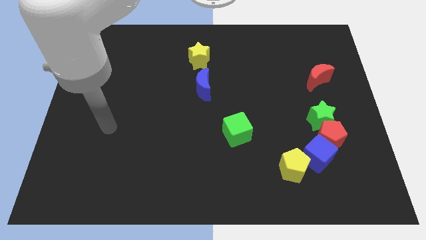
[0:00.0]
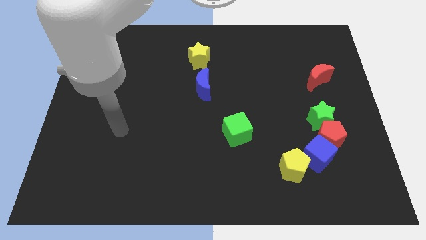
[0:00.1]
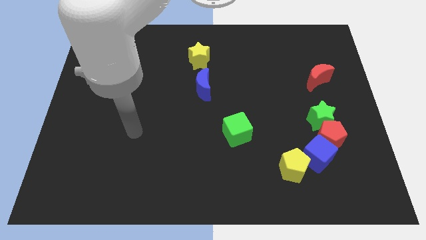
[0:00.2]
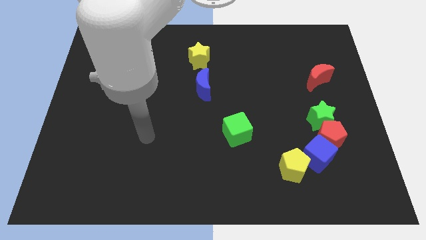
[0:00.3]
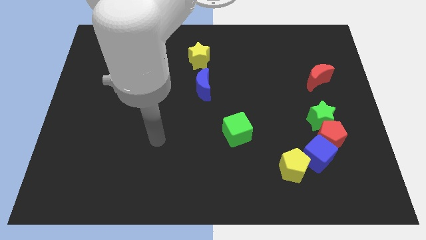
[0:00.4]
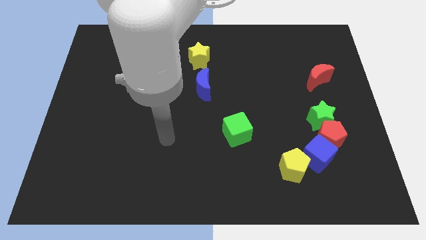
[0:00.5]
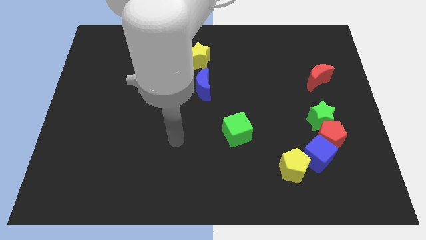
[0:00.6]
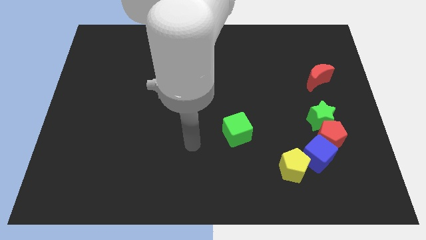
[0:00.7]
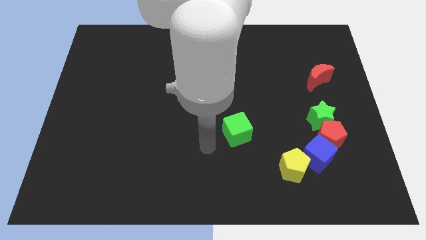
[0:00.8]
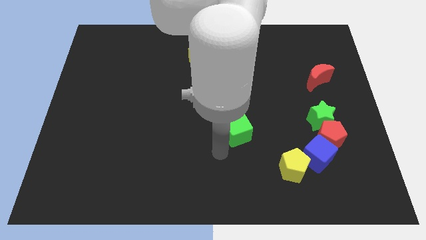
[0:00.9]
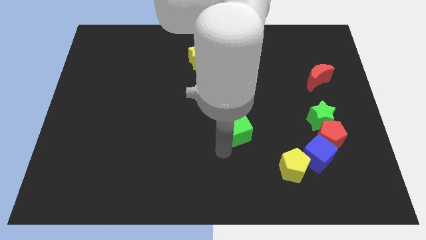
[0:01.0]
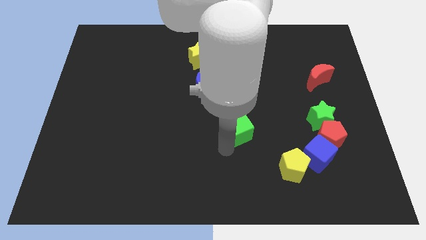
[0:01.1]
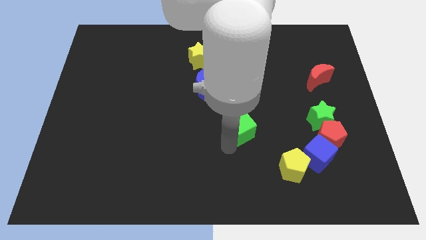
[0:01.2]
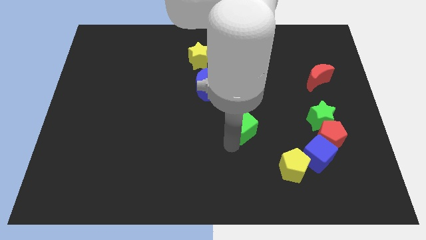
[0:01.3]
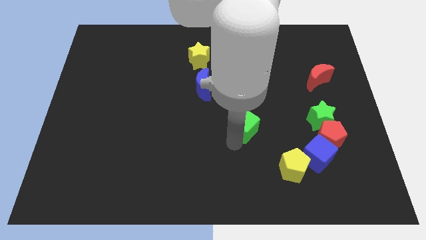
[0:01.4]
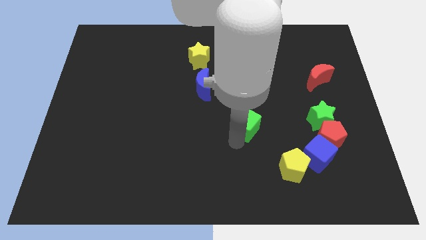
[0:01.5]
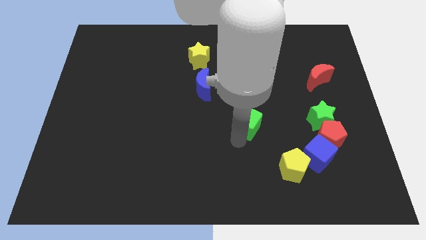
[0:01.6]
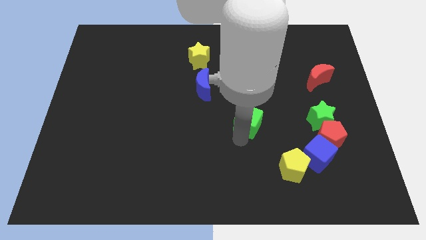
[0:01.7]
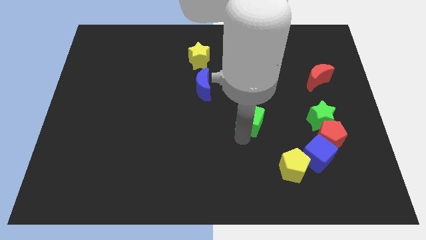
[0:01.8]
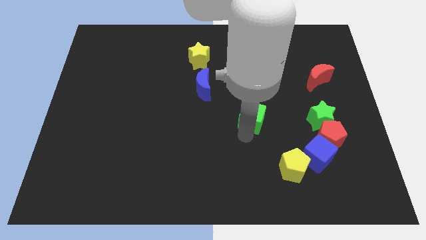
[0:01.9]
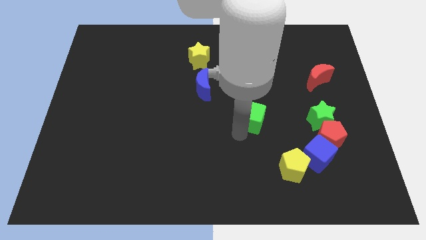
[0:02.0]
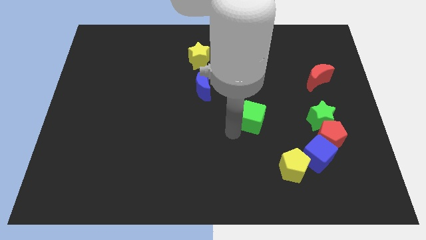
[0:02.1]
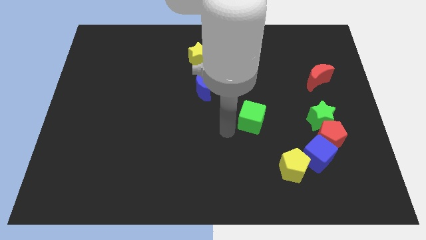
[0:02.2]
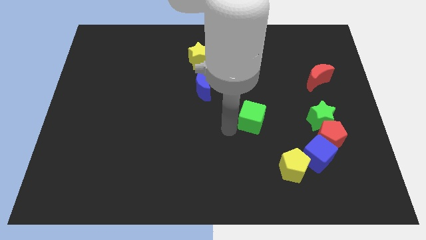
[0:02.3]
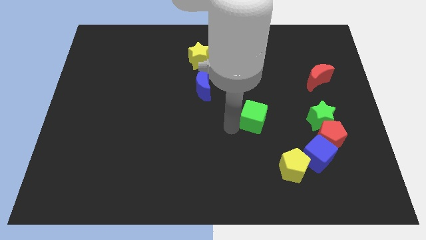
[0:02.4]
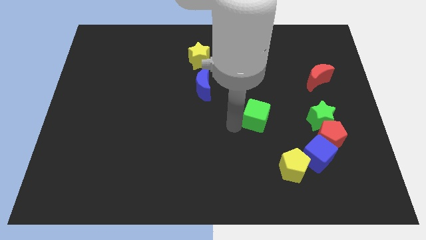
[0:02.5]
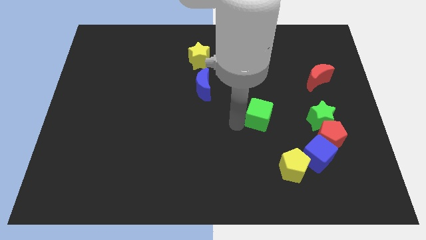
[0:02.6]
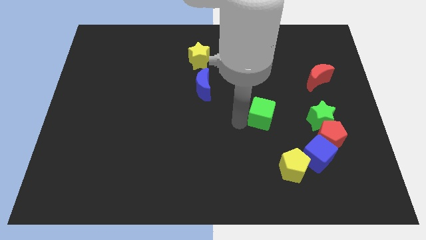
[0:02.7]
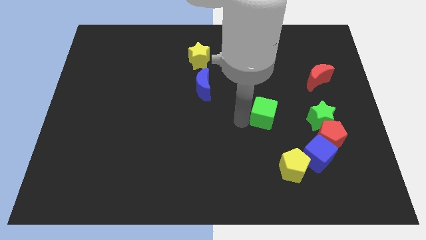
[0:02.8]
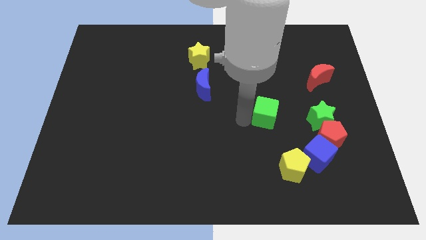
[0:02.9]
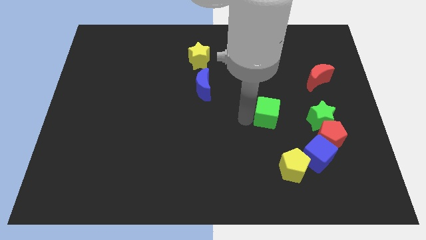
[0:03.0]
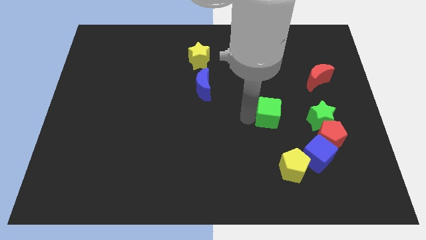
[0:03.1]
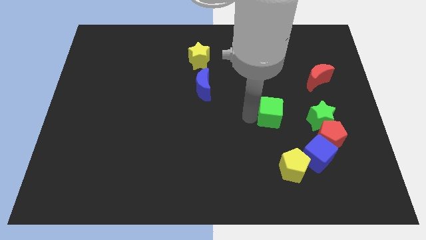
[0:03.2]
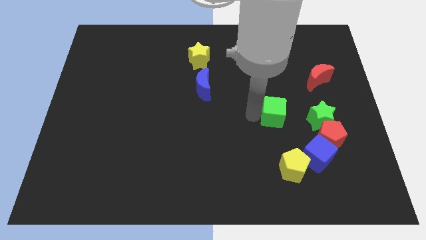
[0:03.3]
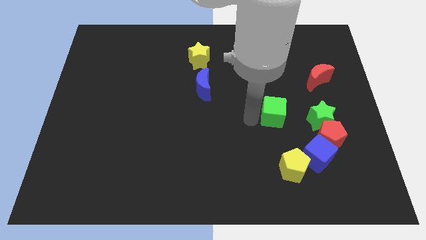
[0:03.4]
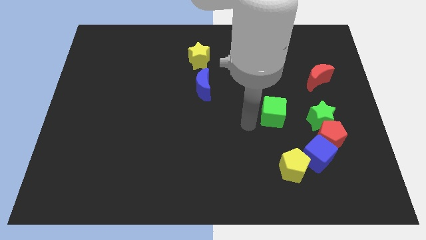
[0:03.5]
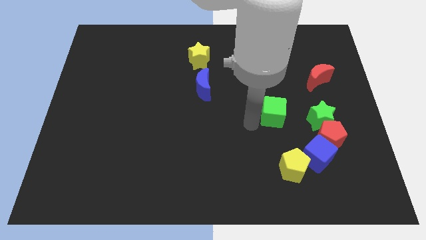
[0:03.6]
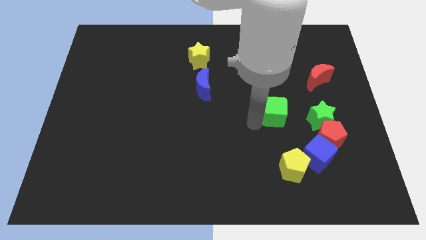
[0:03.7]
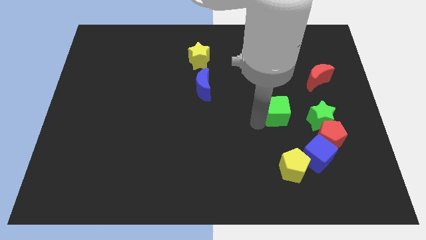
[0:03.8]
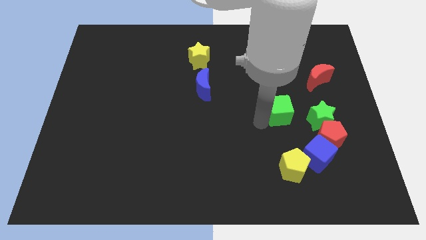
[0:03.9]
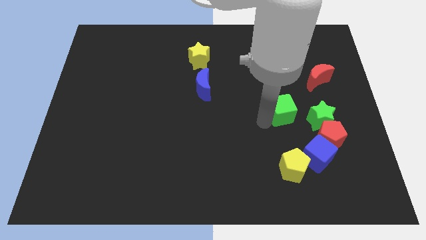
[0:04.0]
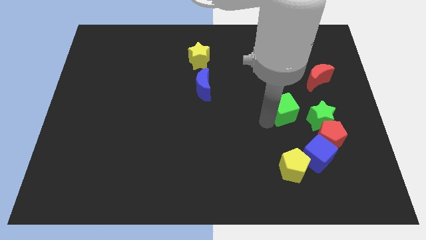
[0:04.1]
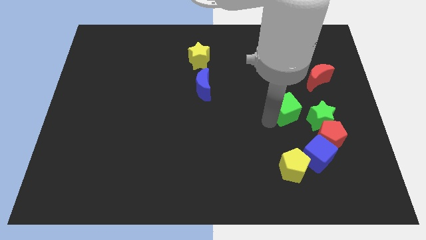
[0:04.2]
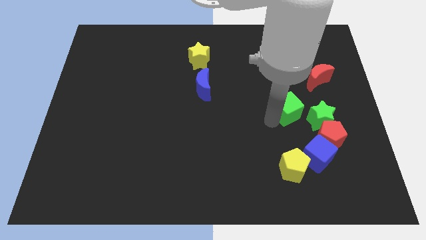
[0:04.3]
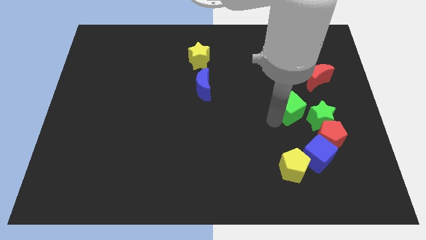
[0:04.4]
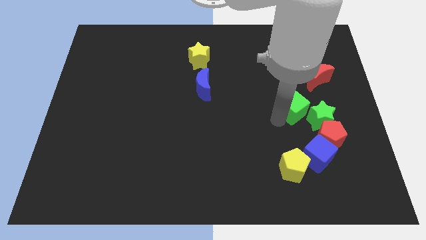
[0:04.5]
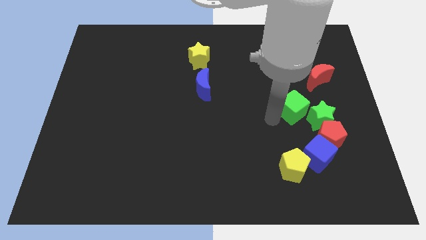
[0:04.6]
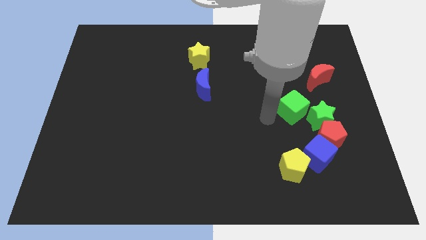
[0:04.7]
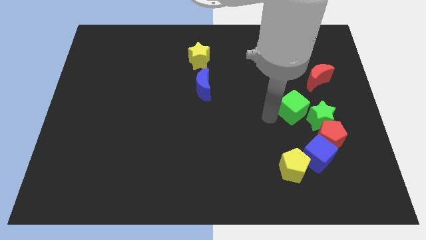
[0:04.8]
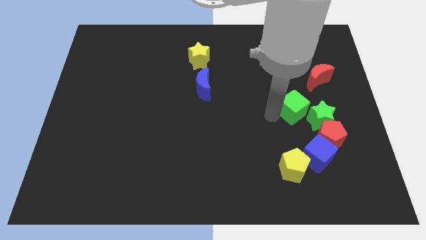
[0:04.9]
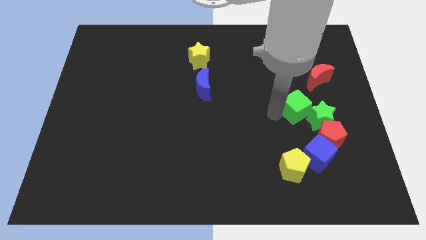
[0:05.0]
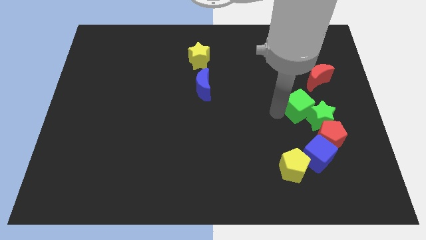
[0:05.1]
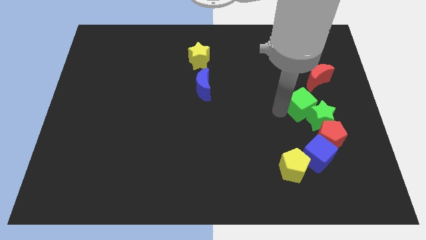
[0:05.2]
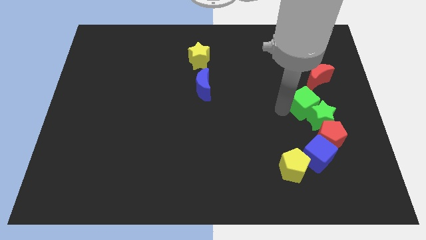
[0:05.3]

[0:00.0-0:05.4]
move the green cube to the top of the red pentagon

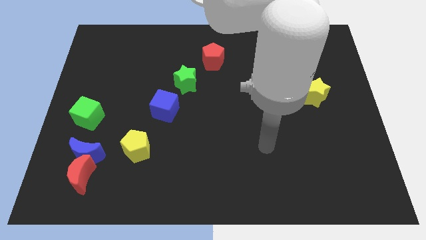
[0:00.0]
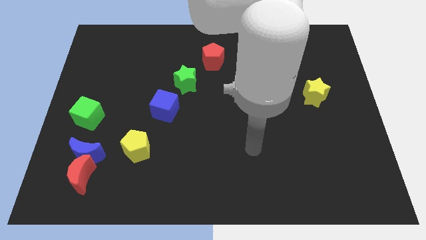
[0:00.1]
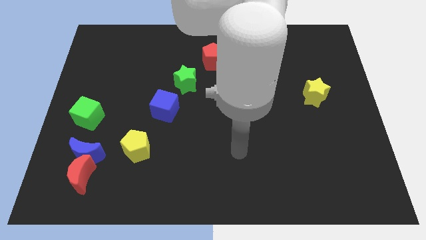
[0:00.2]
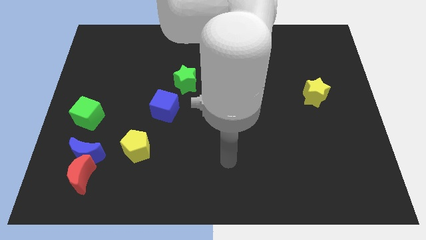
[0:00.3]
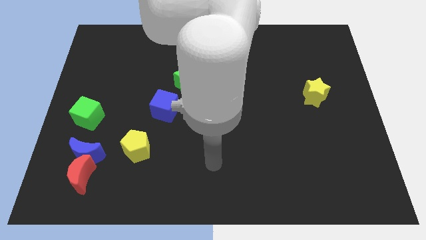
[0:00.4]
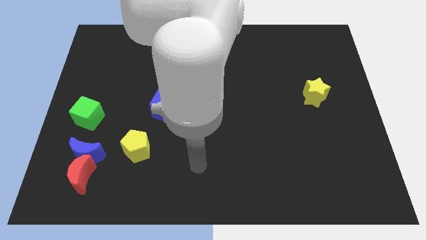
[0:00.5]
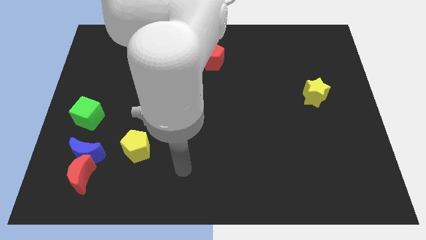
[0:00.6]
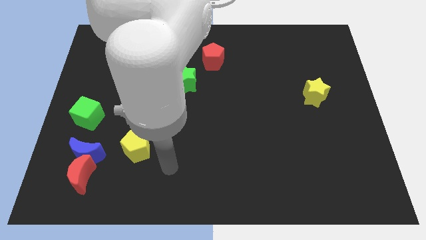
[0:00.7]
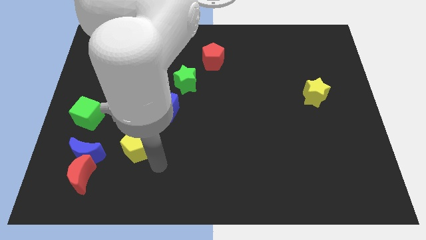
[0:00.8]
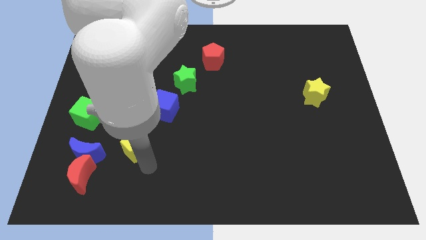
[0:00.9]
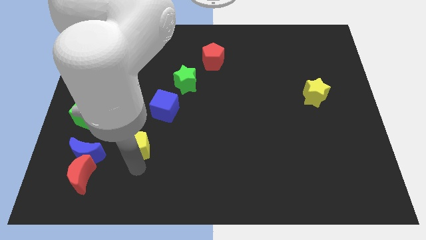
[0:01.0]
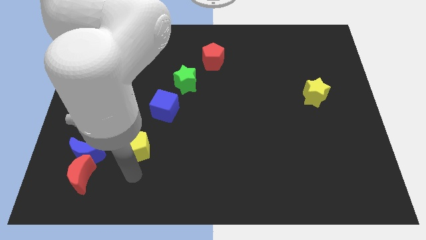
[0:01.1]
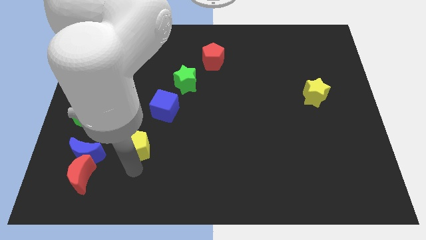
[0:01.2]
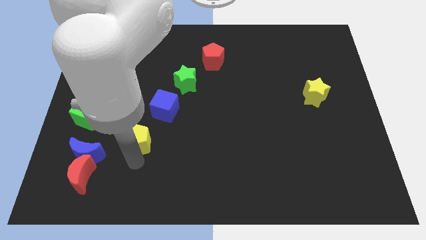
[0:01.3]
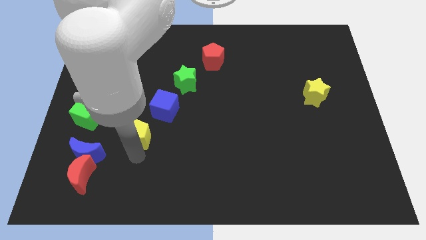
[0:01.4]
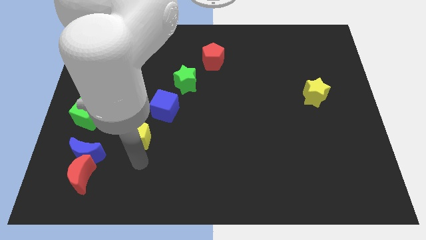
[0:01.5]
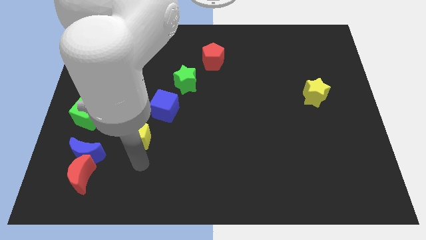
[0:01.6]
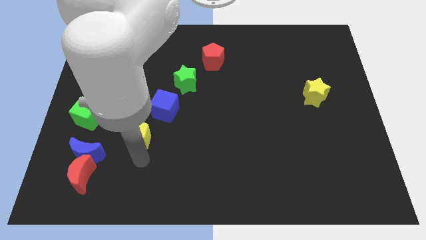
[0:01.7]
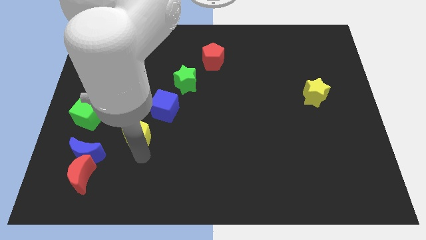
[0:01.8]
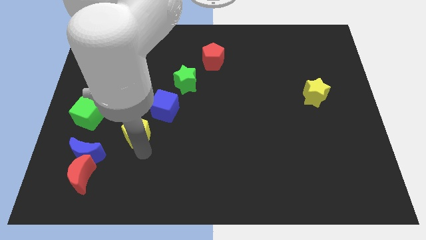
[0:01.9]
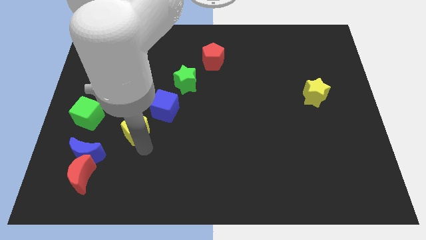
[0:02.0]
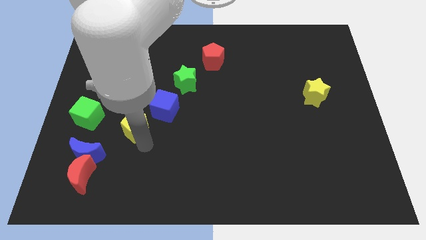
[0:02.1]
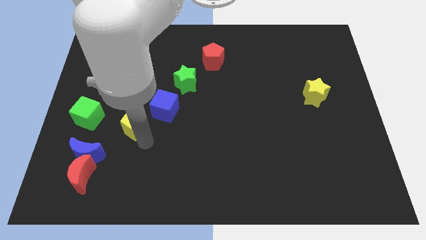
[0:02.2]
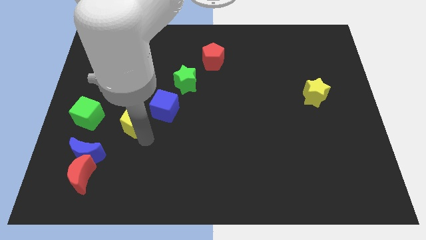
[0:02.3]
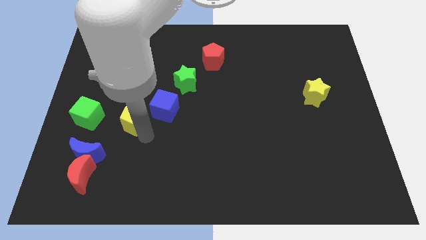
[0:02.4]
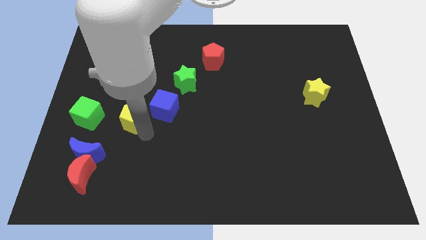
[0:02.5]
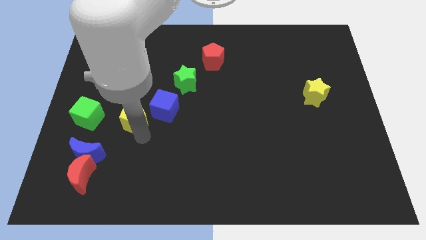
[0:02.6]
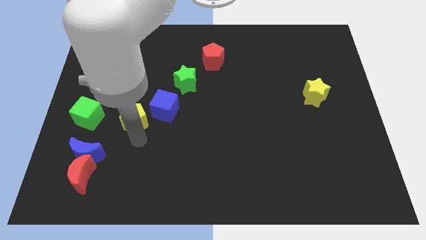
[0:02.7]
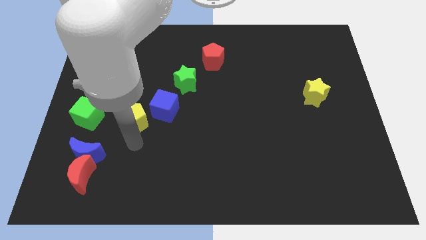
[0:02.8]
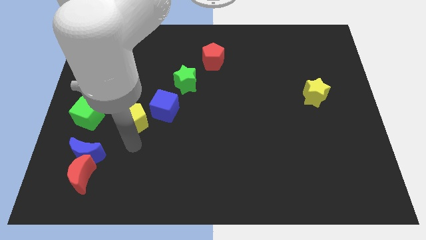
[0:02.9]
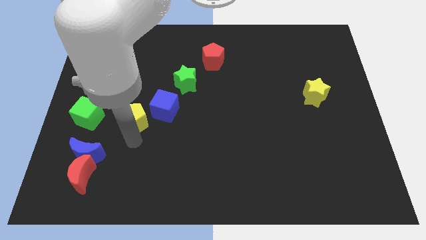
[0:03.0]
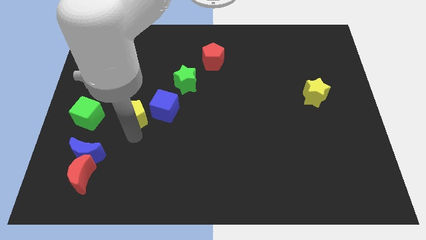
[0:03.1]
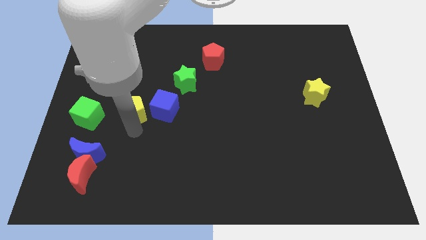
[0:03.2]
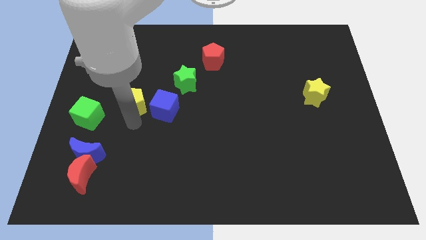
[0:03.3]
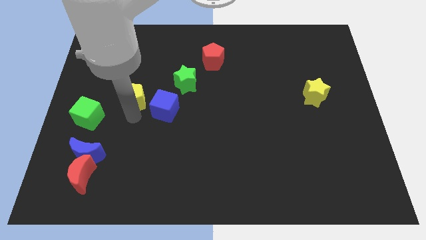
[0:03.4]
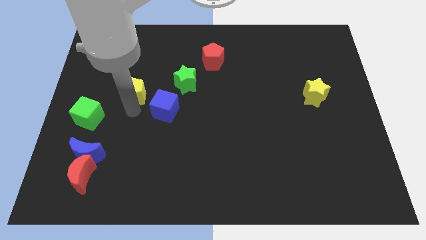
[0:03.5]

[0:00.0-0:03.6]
move the yellow pentagon to the left side of the green star
